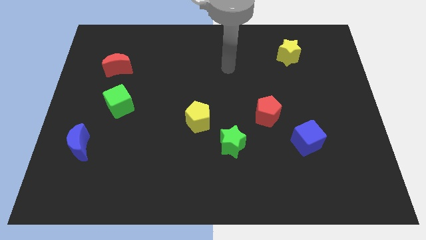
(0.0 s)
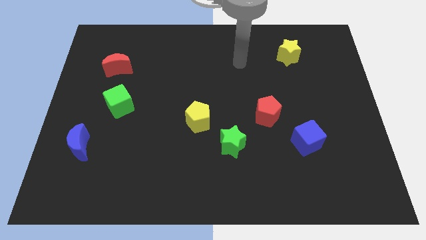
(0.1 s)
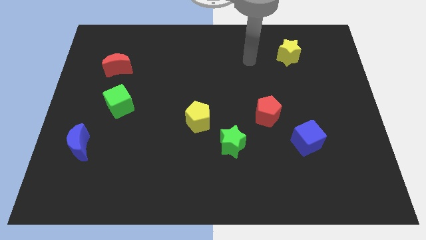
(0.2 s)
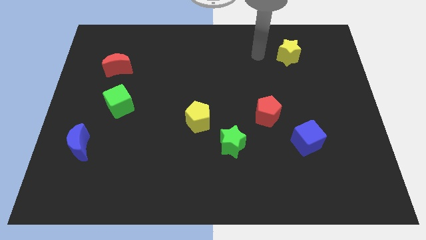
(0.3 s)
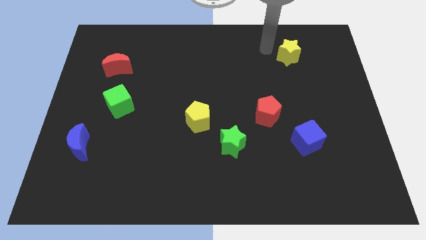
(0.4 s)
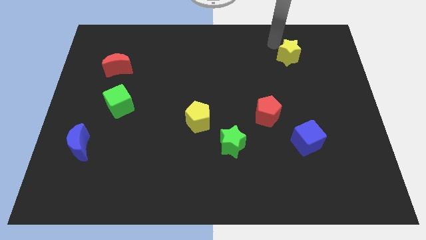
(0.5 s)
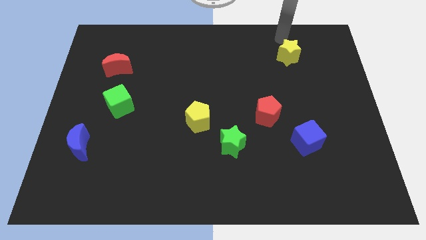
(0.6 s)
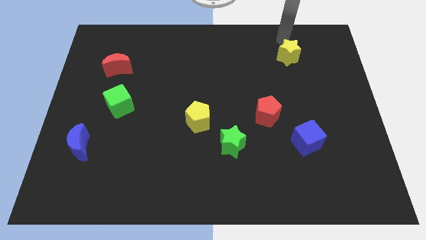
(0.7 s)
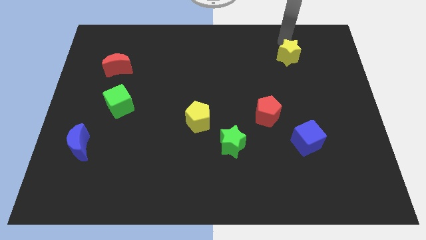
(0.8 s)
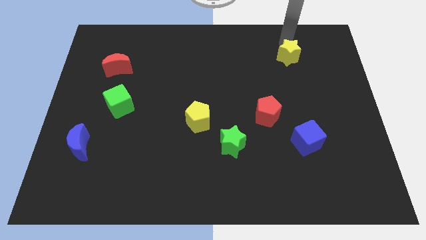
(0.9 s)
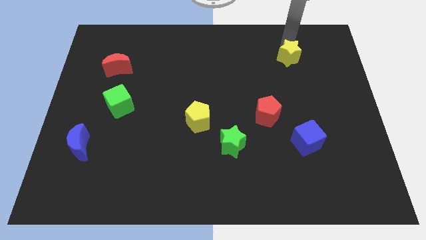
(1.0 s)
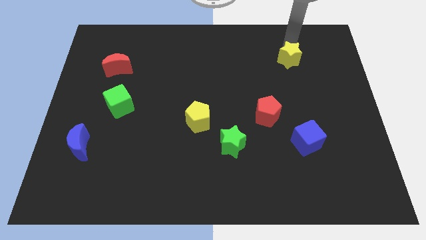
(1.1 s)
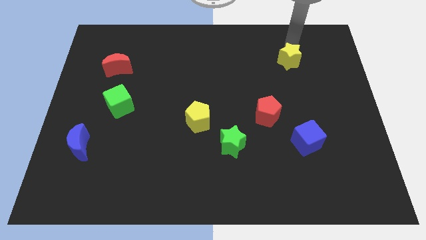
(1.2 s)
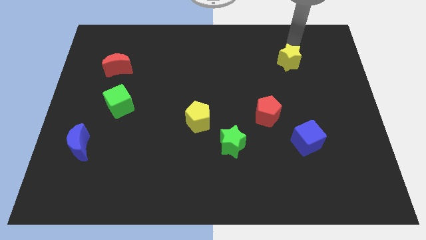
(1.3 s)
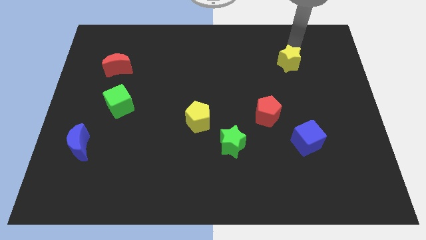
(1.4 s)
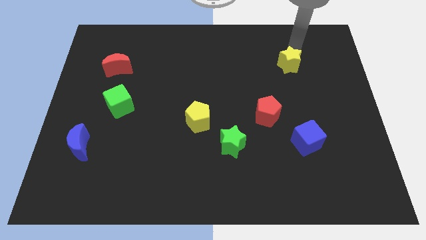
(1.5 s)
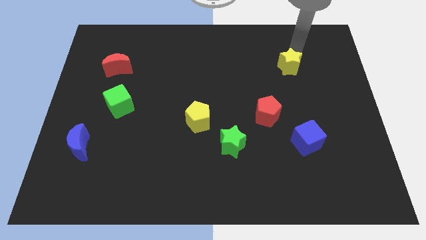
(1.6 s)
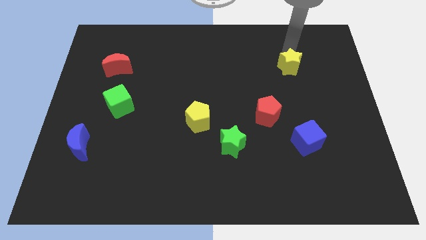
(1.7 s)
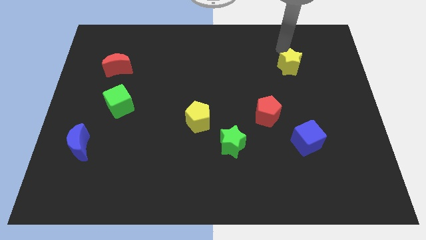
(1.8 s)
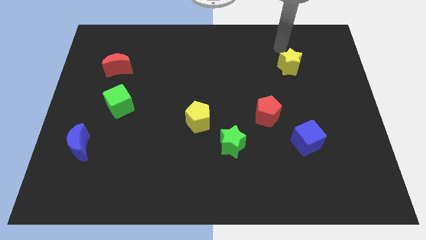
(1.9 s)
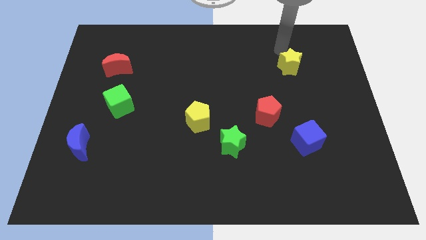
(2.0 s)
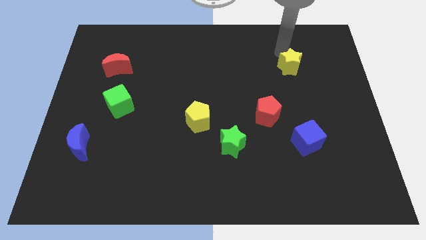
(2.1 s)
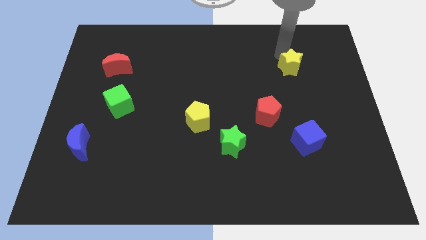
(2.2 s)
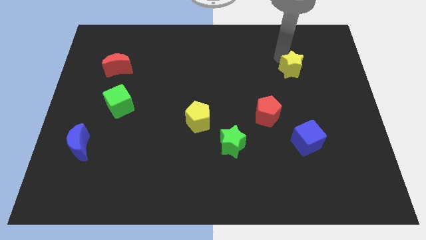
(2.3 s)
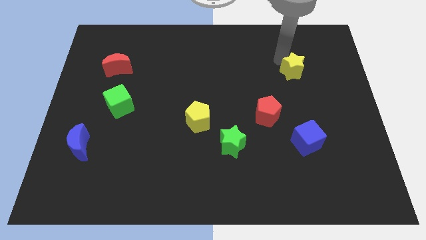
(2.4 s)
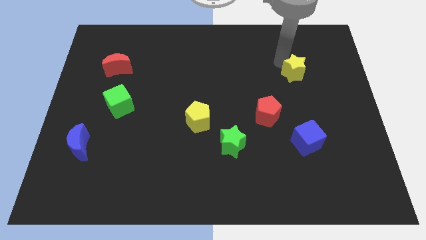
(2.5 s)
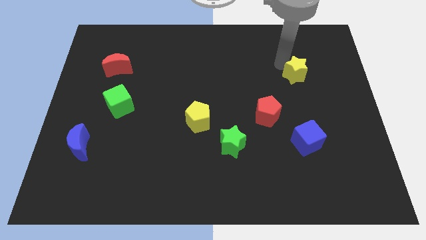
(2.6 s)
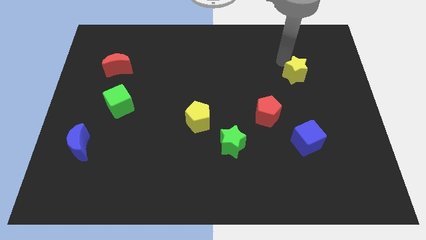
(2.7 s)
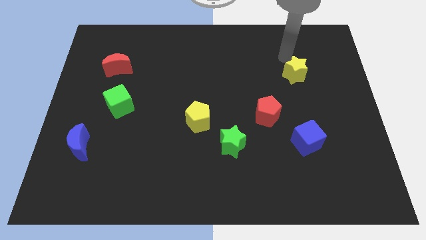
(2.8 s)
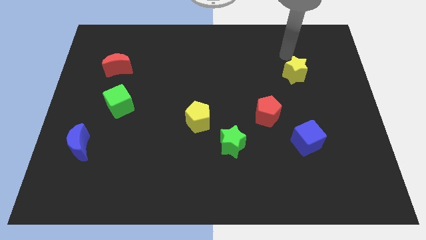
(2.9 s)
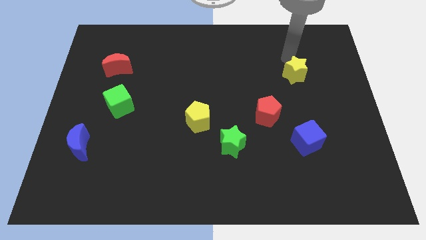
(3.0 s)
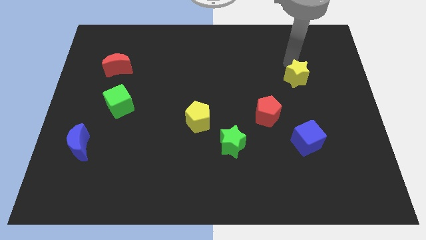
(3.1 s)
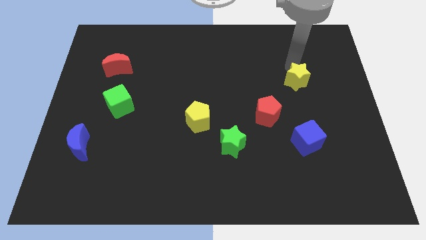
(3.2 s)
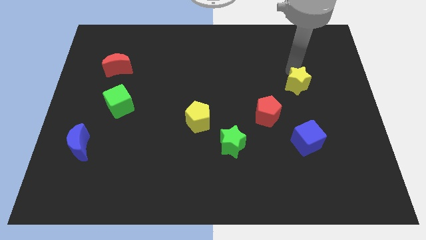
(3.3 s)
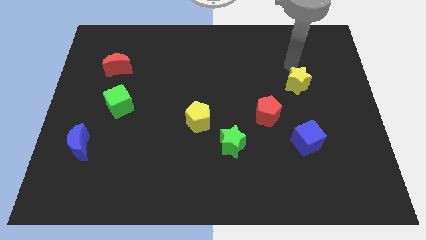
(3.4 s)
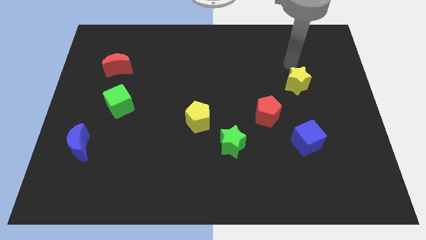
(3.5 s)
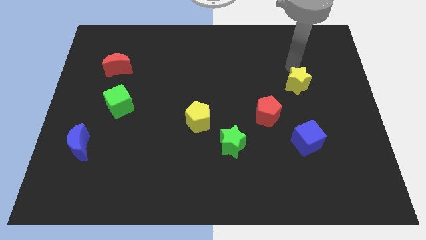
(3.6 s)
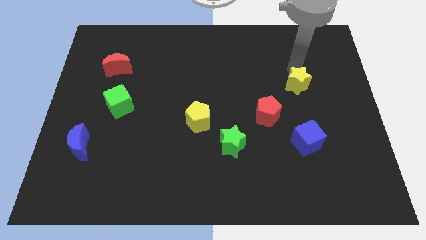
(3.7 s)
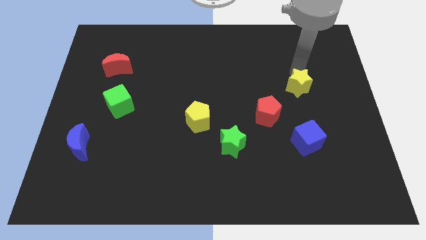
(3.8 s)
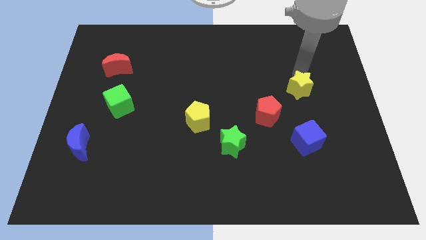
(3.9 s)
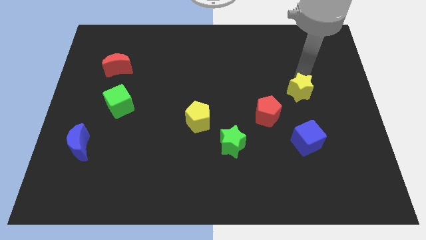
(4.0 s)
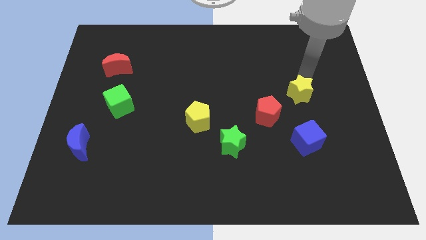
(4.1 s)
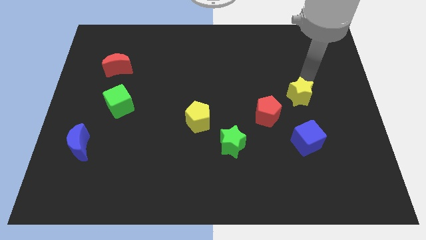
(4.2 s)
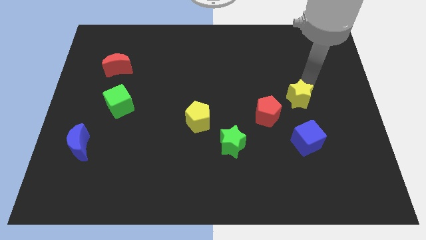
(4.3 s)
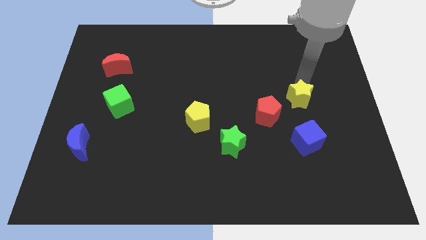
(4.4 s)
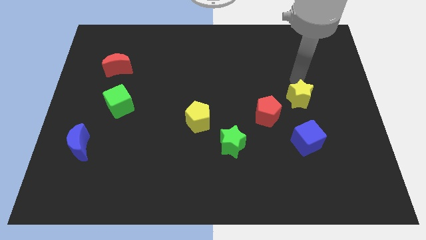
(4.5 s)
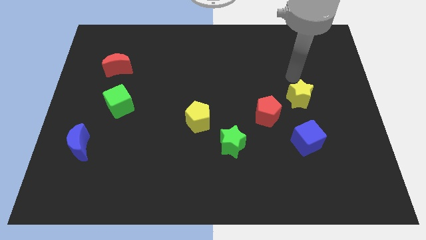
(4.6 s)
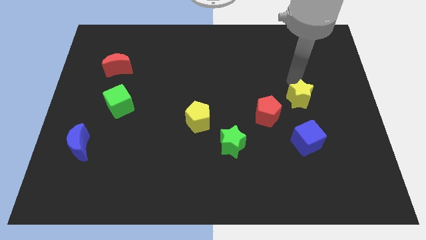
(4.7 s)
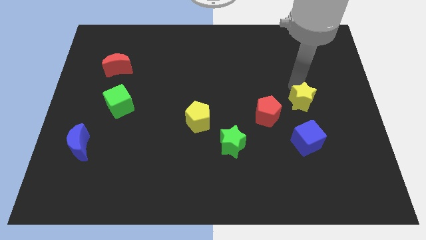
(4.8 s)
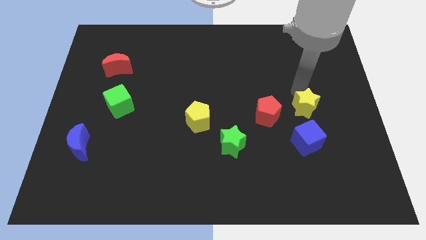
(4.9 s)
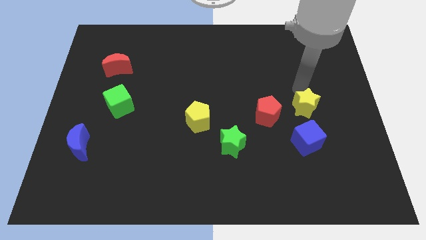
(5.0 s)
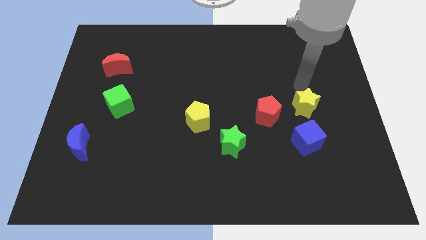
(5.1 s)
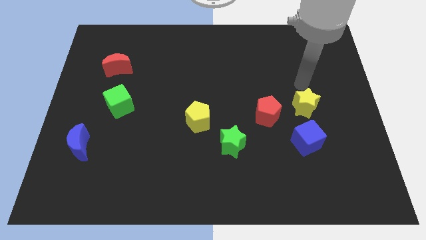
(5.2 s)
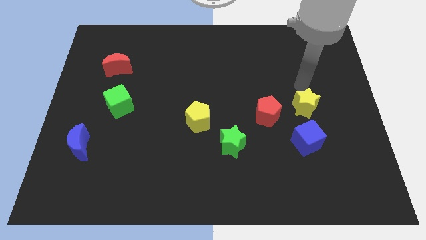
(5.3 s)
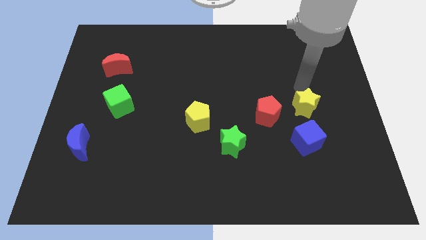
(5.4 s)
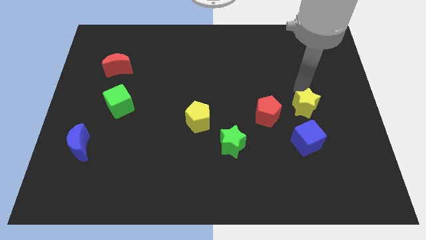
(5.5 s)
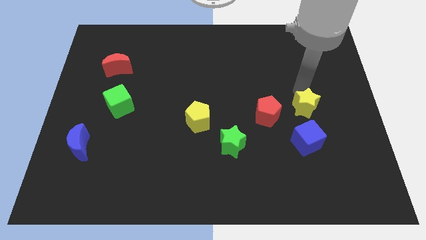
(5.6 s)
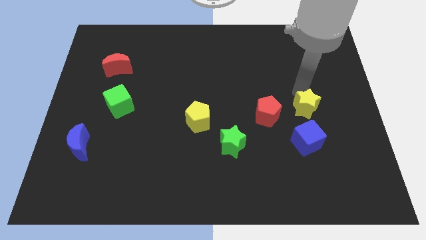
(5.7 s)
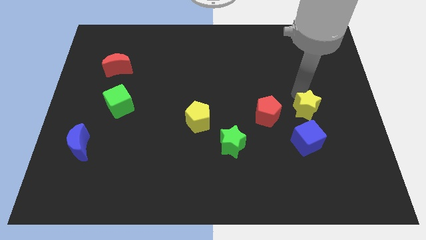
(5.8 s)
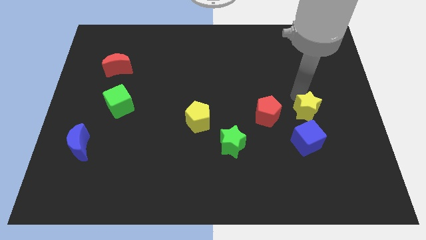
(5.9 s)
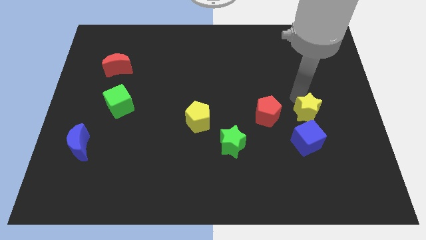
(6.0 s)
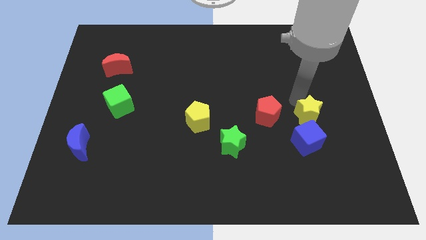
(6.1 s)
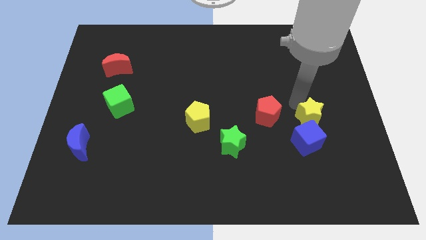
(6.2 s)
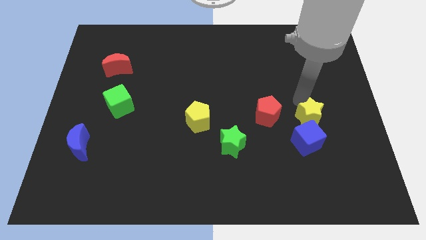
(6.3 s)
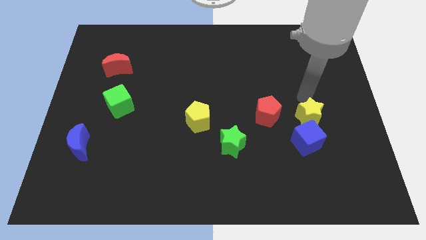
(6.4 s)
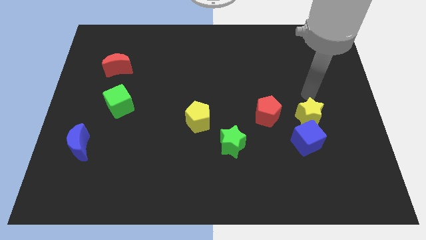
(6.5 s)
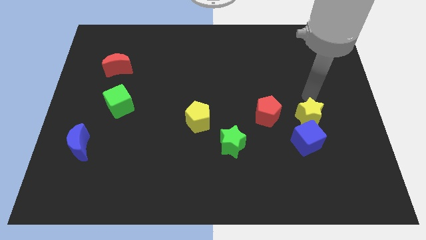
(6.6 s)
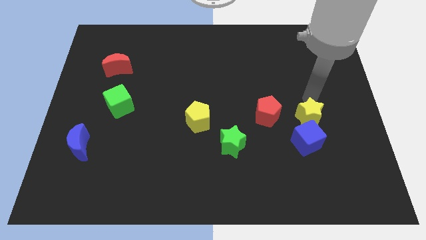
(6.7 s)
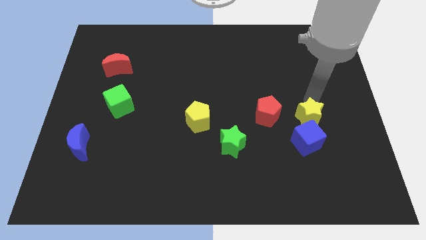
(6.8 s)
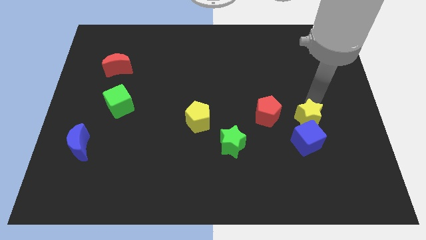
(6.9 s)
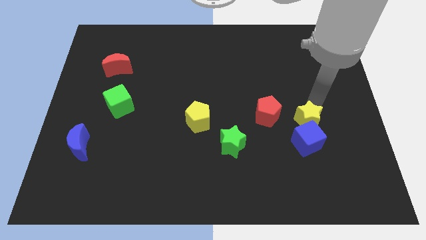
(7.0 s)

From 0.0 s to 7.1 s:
put the yellow star towards the blue cube

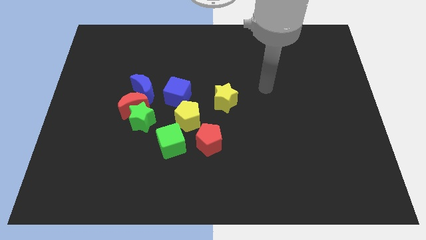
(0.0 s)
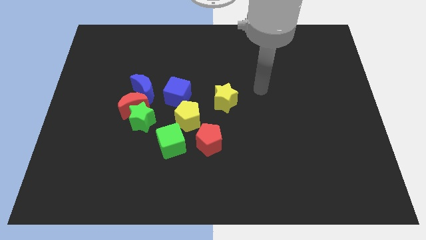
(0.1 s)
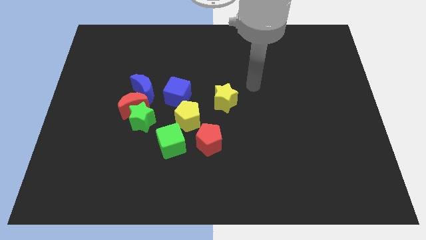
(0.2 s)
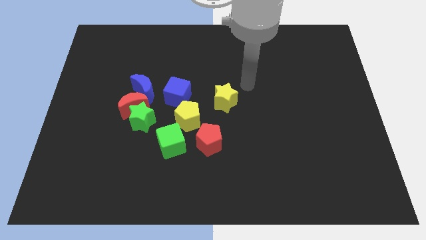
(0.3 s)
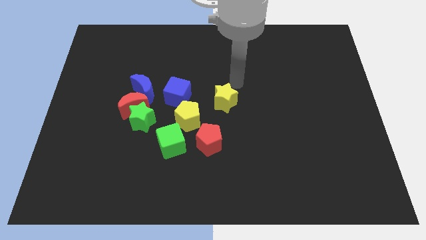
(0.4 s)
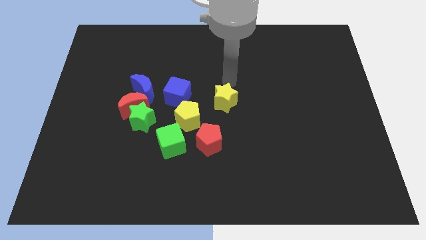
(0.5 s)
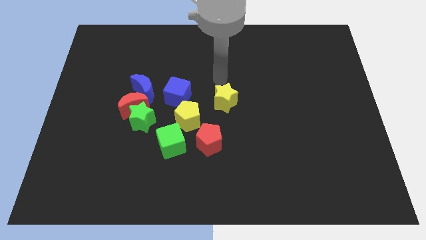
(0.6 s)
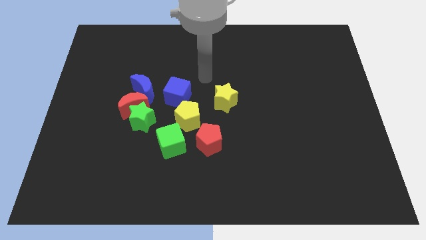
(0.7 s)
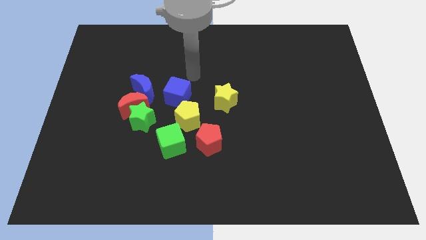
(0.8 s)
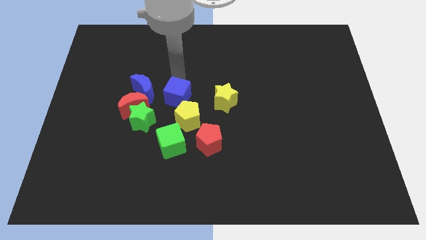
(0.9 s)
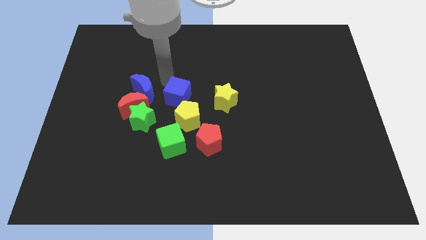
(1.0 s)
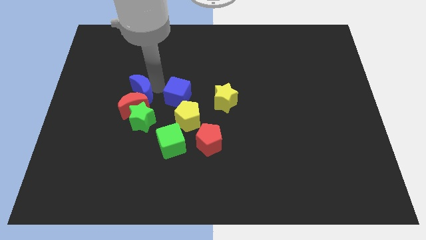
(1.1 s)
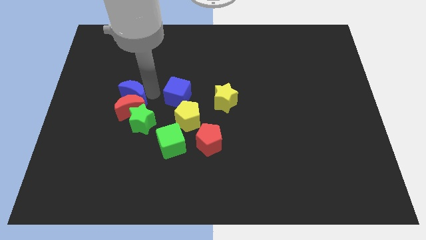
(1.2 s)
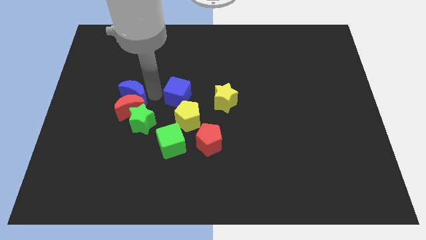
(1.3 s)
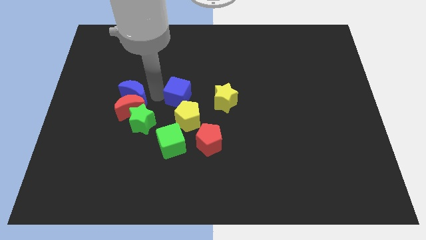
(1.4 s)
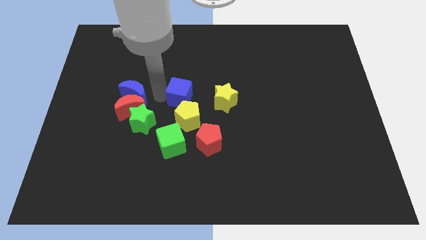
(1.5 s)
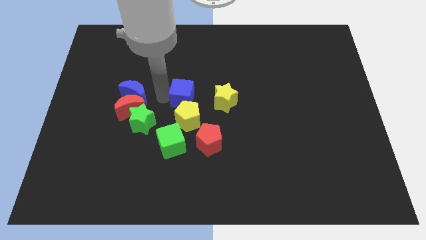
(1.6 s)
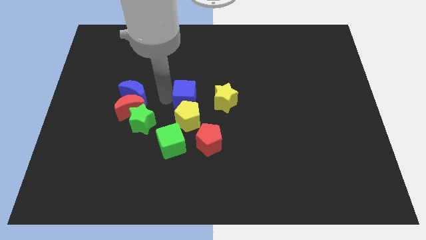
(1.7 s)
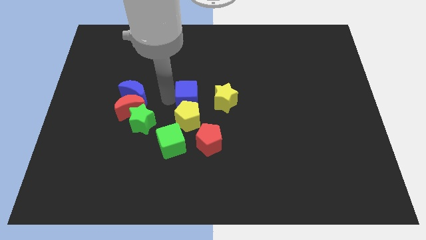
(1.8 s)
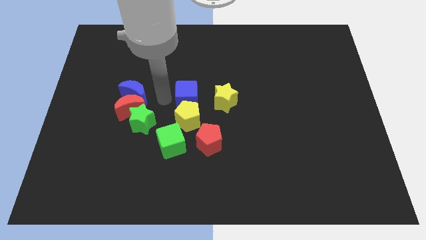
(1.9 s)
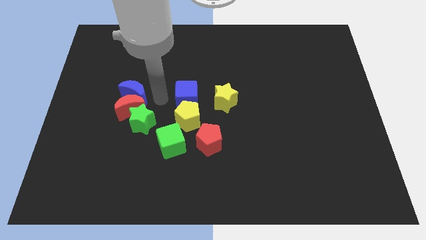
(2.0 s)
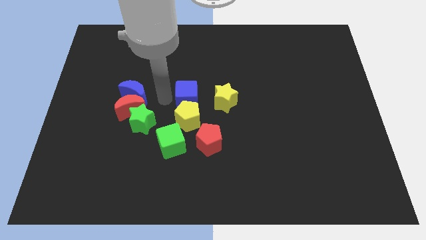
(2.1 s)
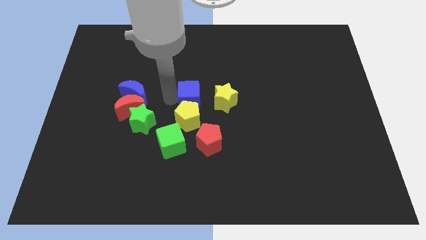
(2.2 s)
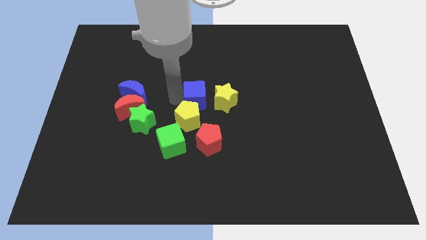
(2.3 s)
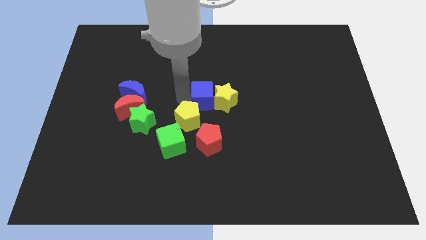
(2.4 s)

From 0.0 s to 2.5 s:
slide the blue cube next to the yellow star
